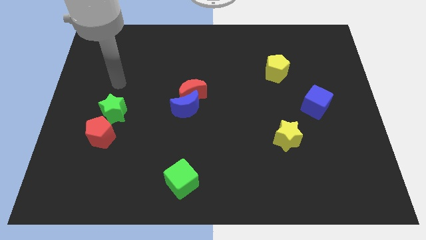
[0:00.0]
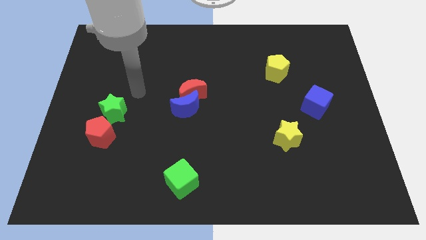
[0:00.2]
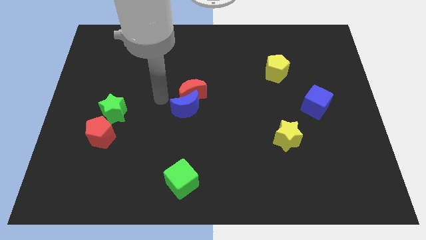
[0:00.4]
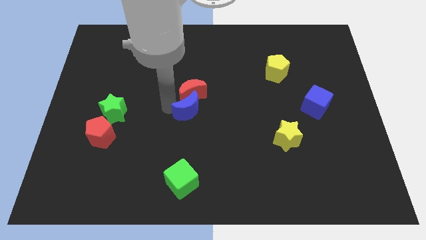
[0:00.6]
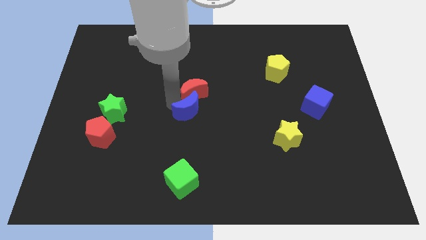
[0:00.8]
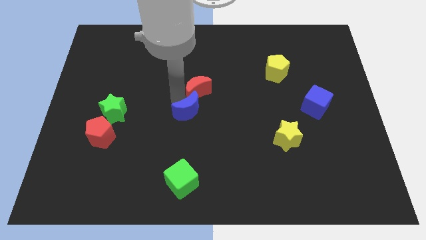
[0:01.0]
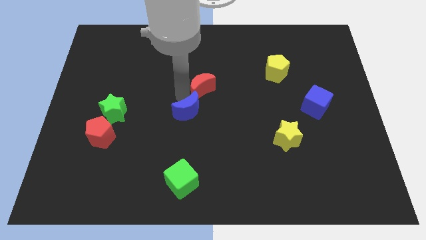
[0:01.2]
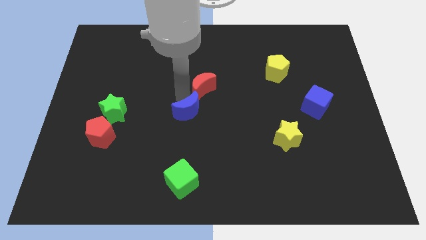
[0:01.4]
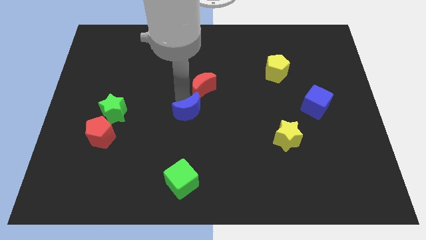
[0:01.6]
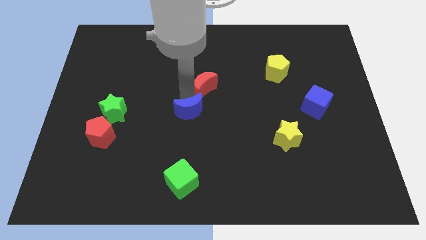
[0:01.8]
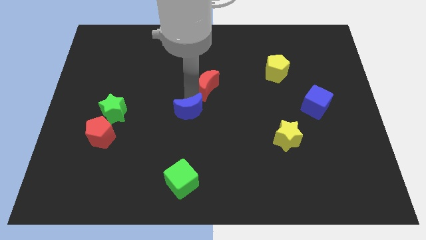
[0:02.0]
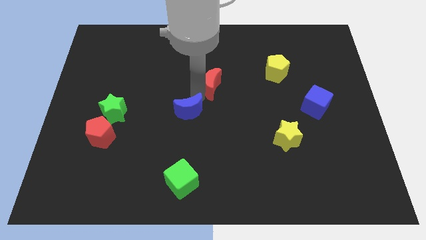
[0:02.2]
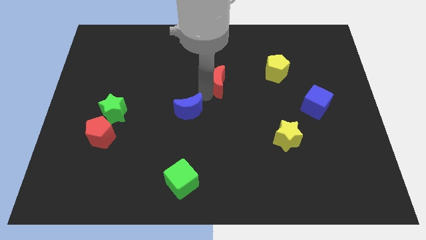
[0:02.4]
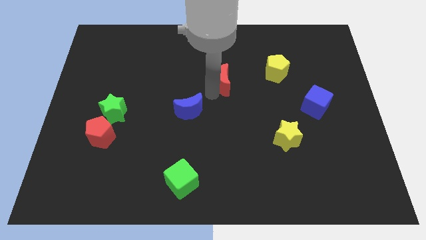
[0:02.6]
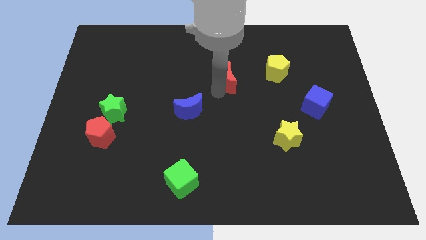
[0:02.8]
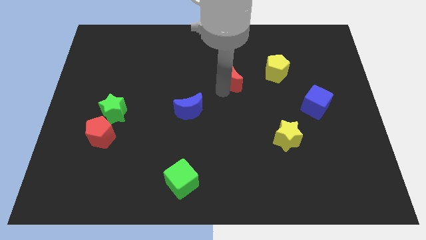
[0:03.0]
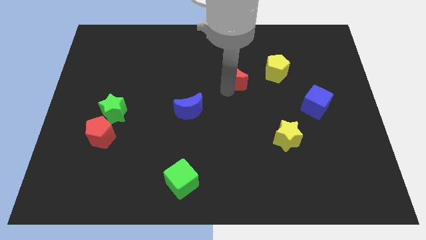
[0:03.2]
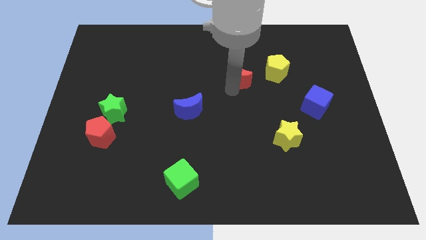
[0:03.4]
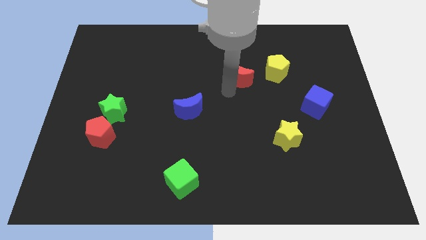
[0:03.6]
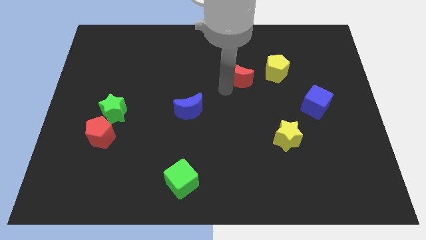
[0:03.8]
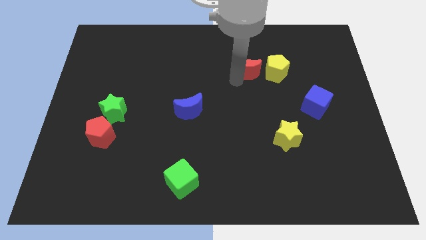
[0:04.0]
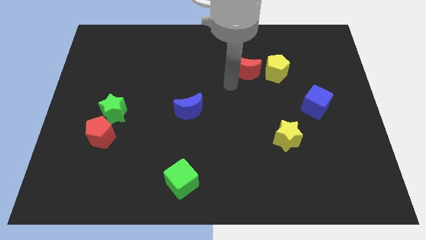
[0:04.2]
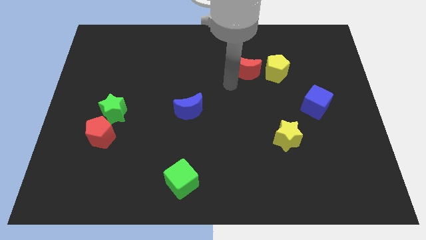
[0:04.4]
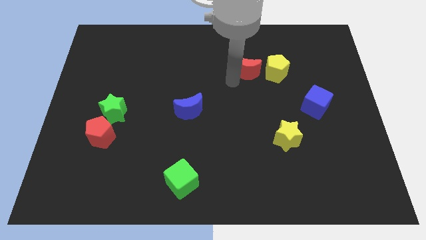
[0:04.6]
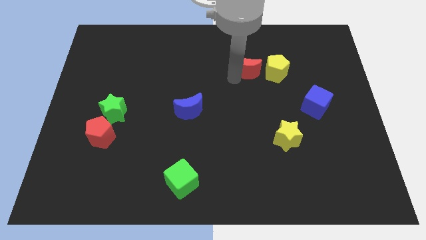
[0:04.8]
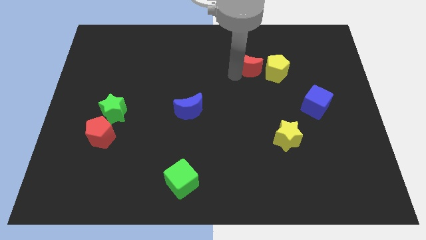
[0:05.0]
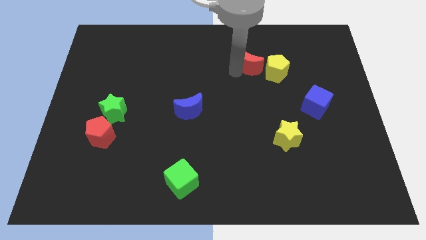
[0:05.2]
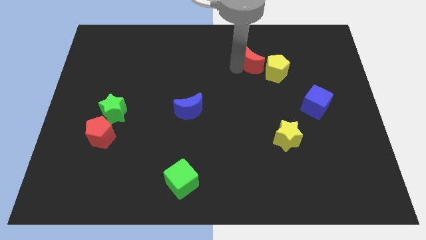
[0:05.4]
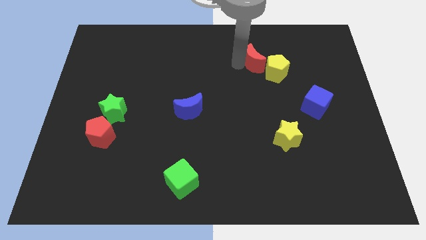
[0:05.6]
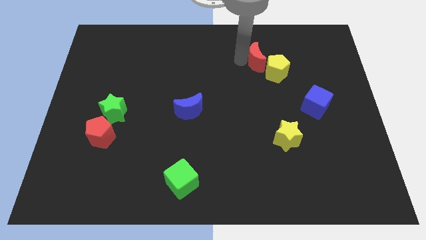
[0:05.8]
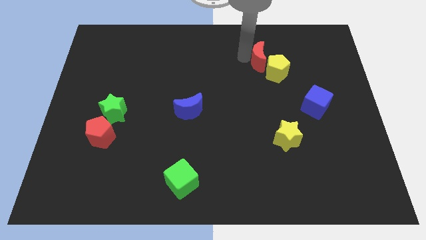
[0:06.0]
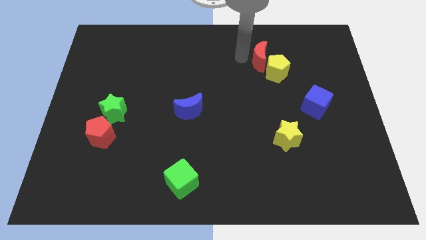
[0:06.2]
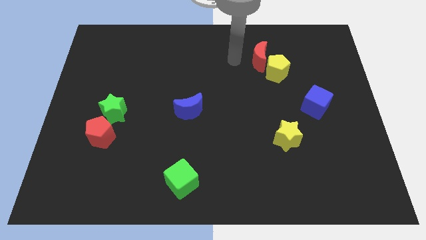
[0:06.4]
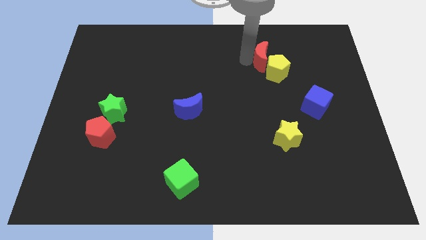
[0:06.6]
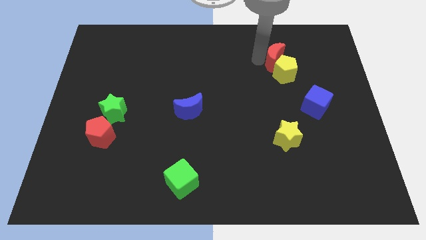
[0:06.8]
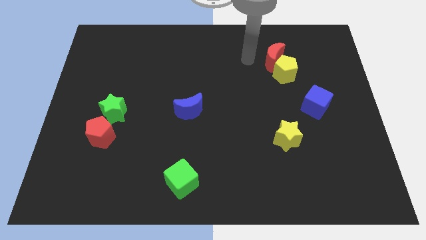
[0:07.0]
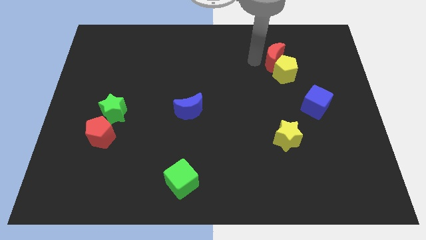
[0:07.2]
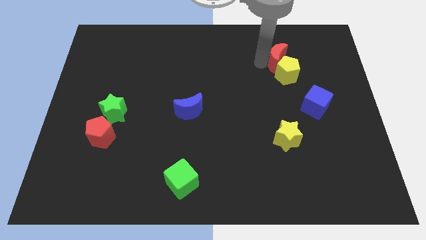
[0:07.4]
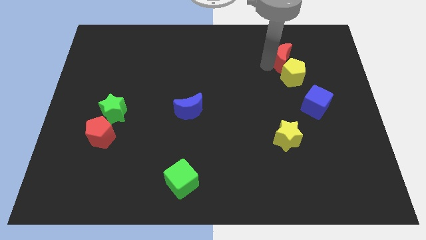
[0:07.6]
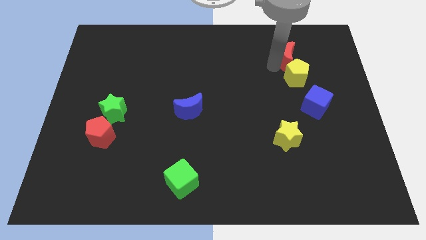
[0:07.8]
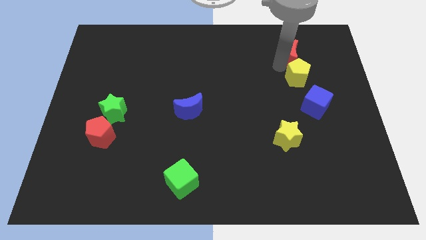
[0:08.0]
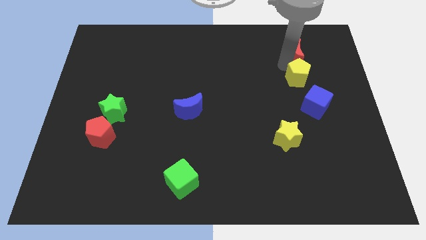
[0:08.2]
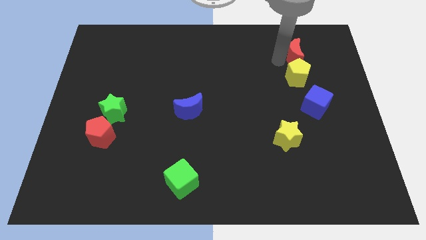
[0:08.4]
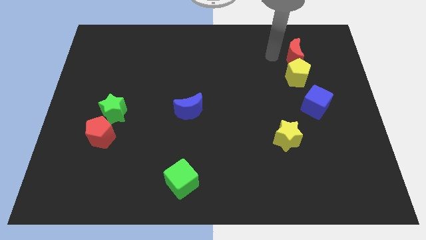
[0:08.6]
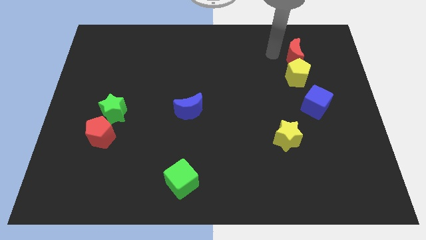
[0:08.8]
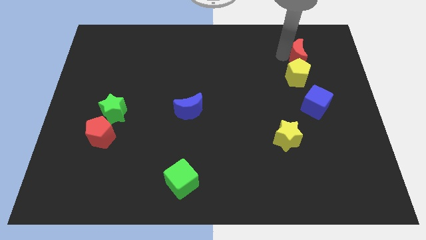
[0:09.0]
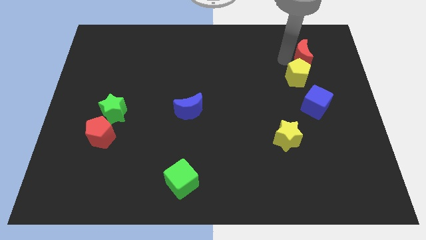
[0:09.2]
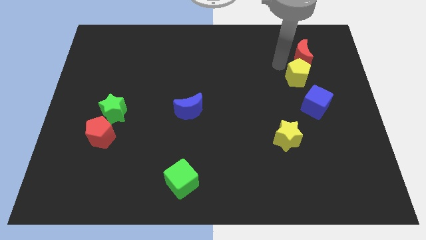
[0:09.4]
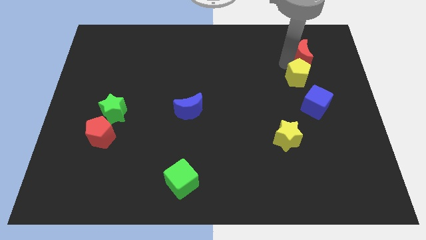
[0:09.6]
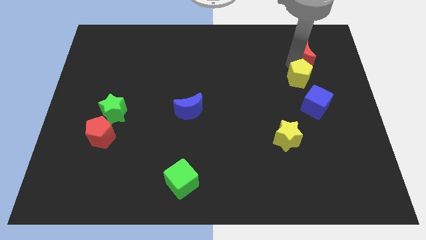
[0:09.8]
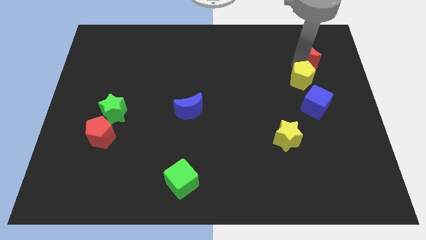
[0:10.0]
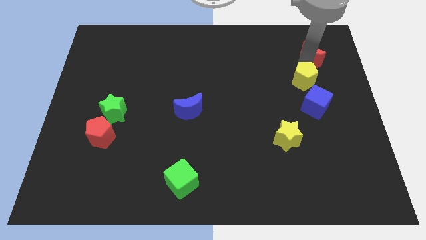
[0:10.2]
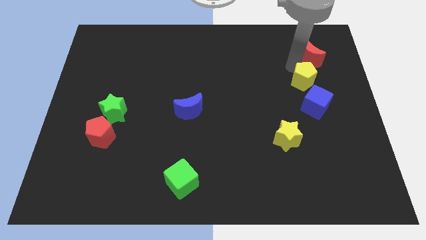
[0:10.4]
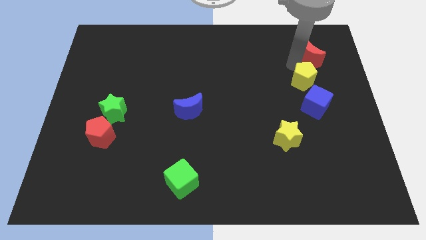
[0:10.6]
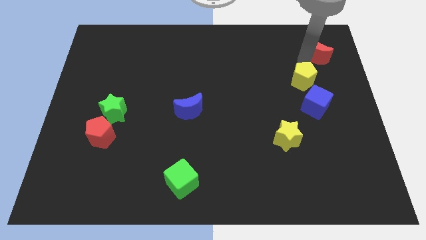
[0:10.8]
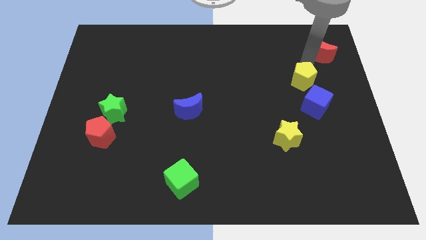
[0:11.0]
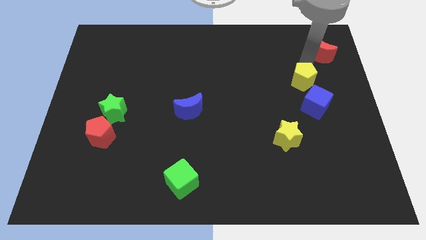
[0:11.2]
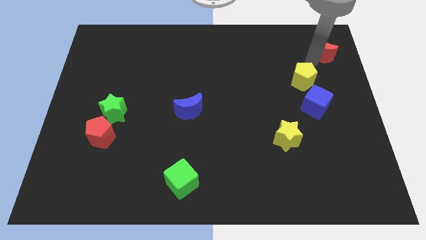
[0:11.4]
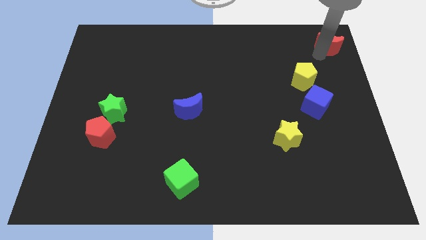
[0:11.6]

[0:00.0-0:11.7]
put the red moon to the top right
